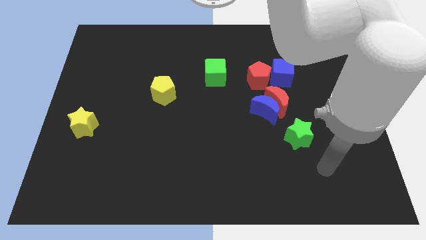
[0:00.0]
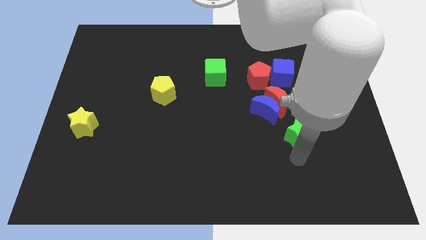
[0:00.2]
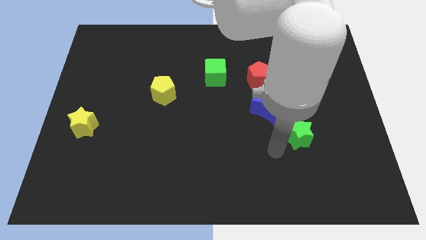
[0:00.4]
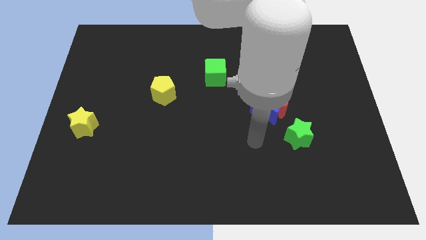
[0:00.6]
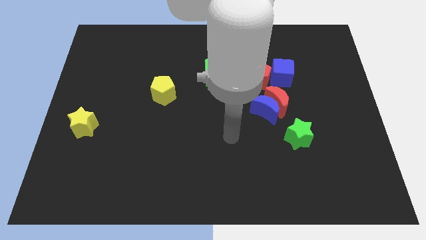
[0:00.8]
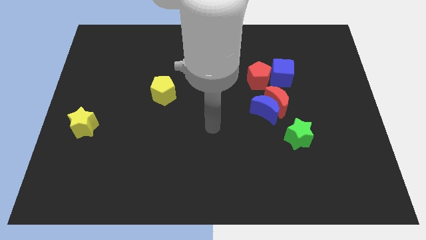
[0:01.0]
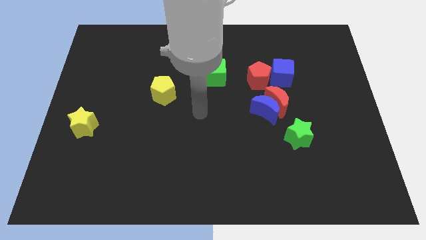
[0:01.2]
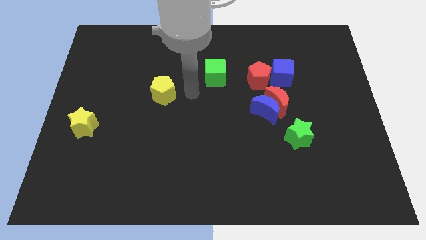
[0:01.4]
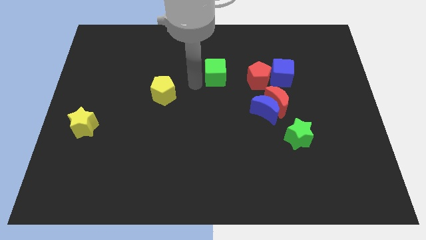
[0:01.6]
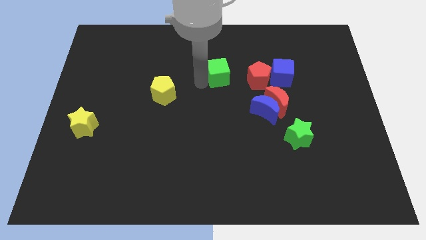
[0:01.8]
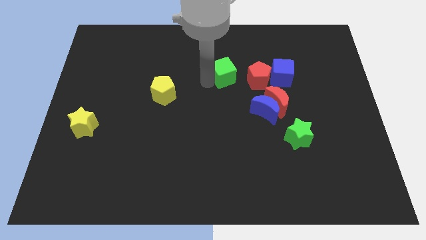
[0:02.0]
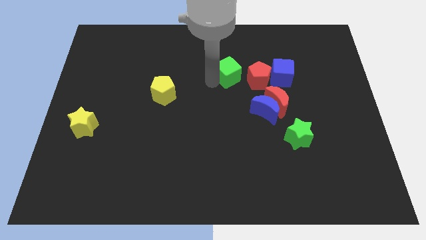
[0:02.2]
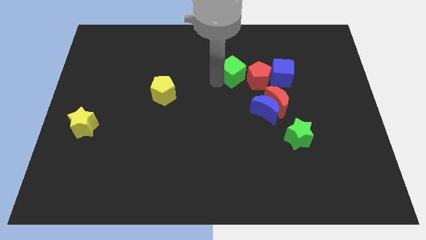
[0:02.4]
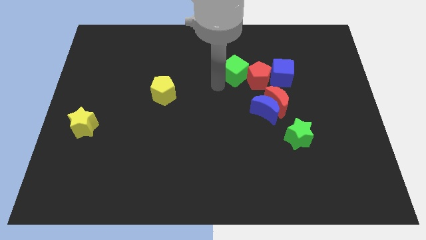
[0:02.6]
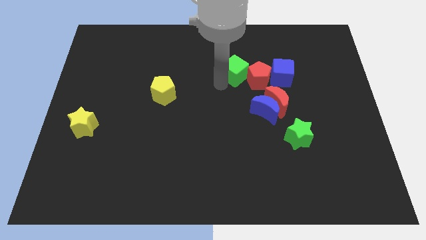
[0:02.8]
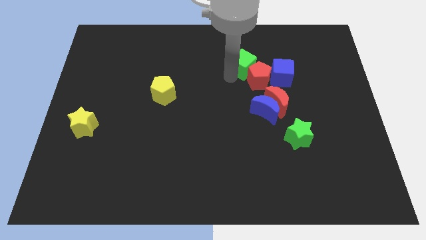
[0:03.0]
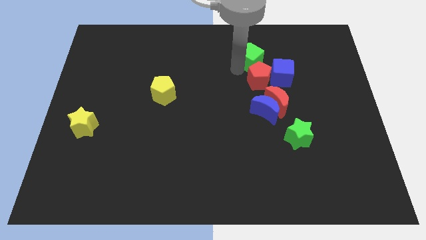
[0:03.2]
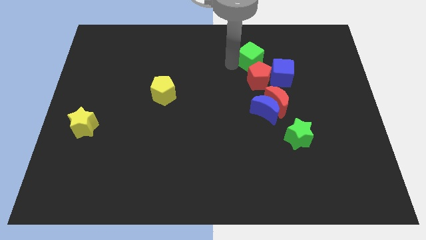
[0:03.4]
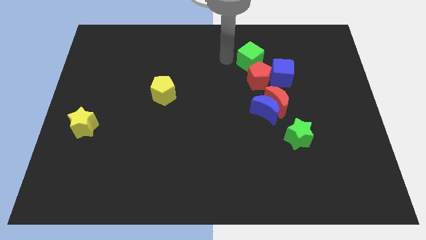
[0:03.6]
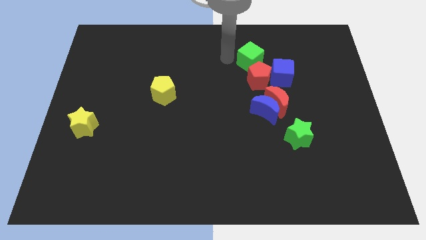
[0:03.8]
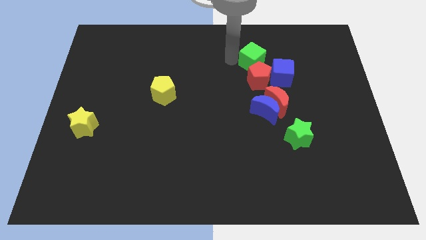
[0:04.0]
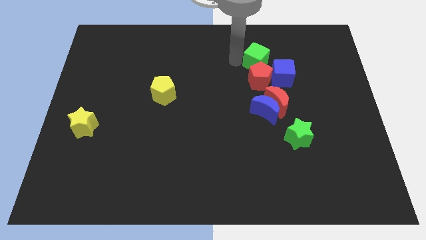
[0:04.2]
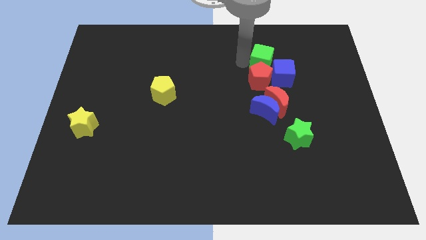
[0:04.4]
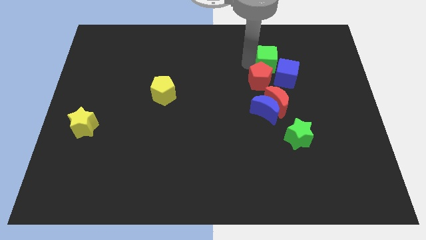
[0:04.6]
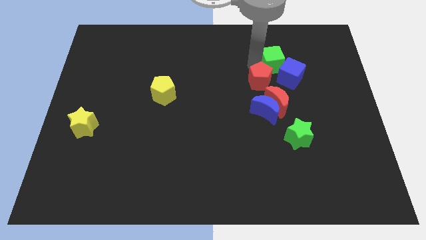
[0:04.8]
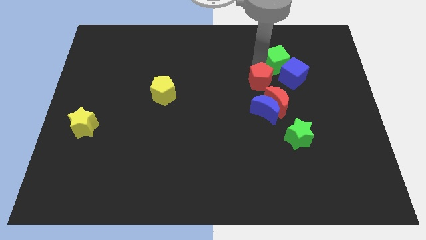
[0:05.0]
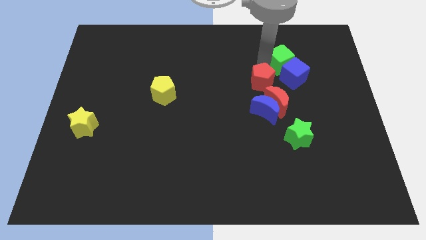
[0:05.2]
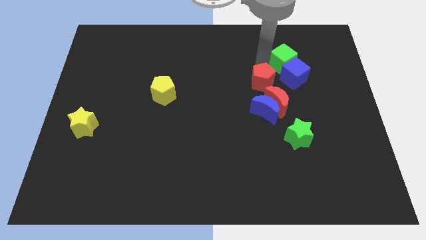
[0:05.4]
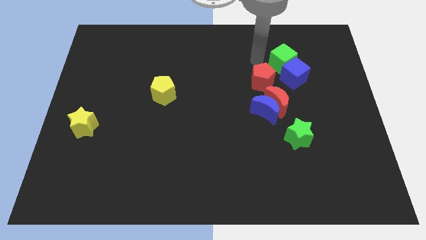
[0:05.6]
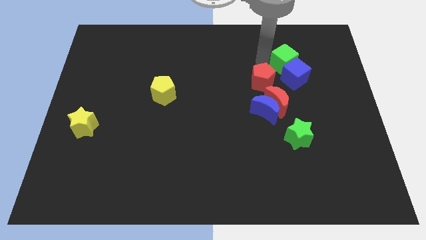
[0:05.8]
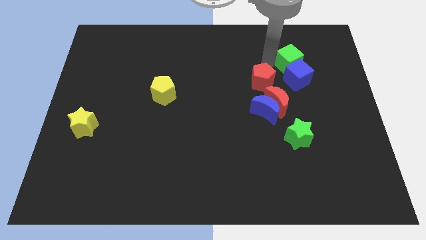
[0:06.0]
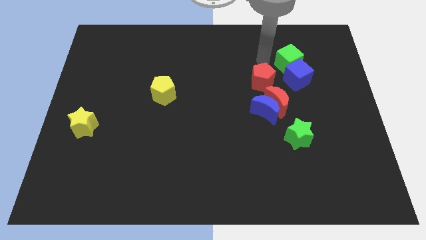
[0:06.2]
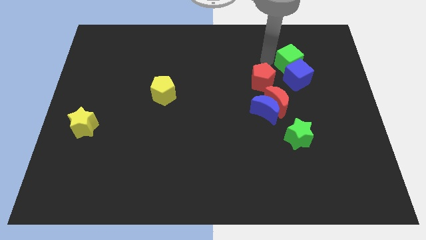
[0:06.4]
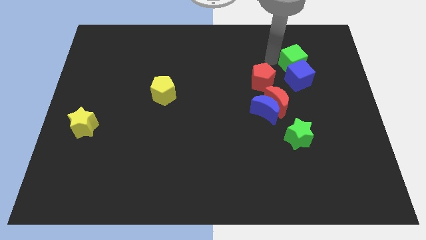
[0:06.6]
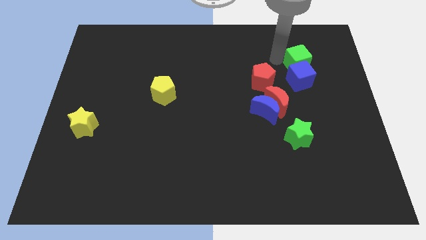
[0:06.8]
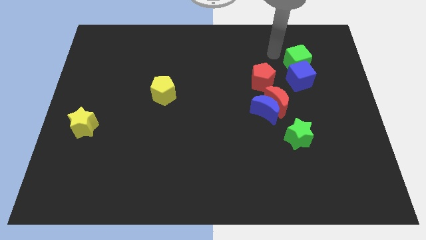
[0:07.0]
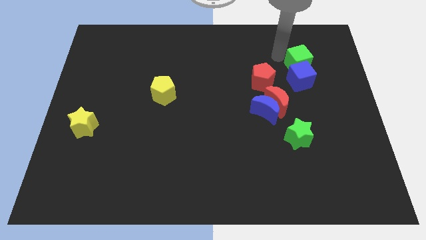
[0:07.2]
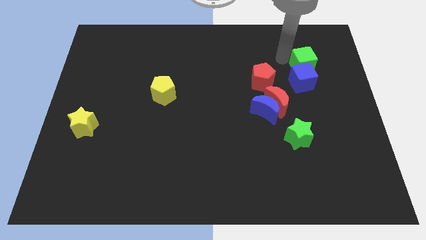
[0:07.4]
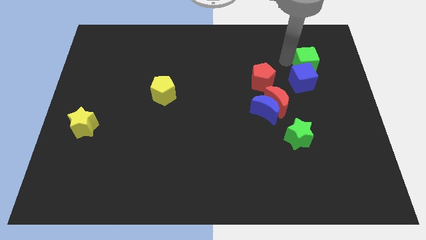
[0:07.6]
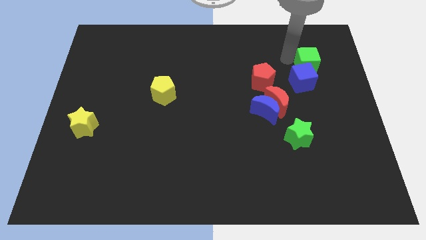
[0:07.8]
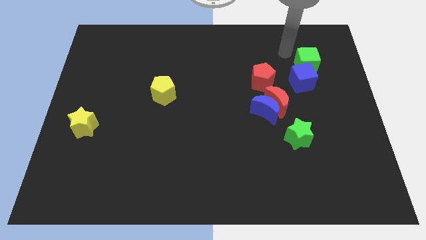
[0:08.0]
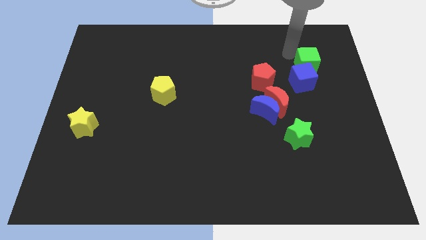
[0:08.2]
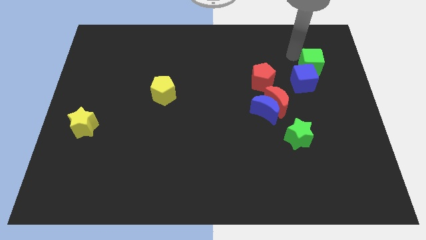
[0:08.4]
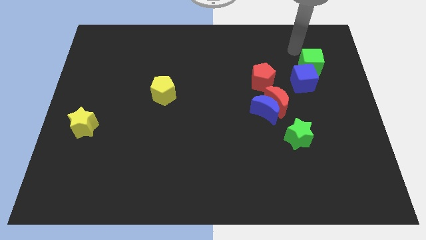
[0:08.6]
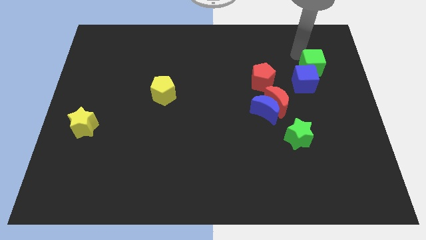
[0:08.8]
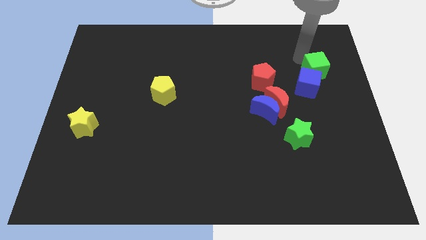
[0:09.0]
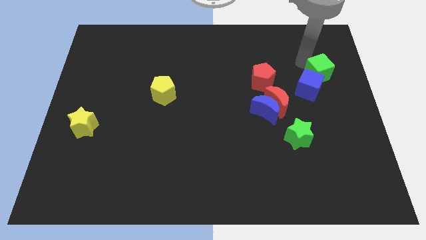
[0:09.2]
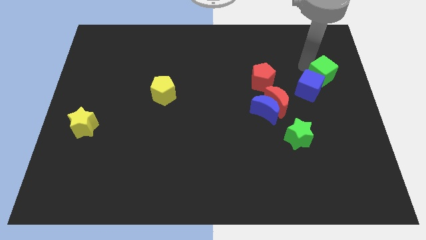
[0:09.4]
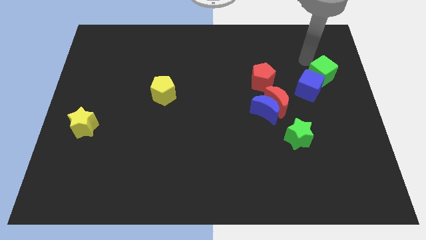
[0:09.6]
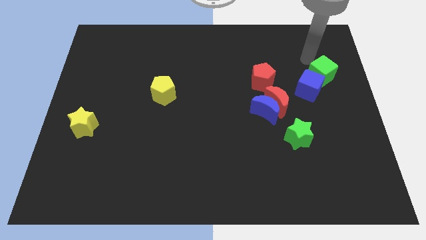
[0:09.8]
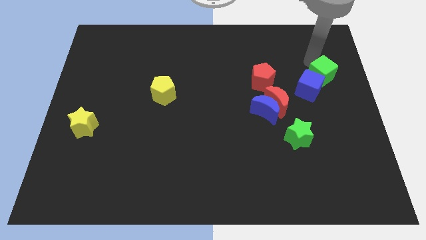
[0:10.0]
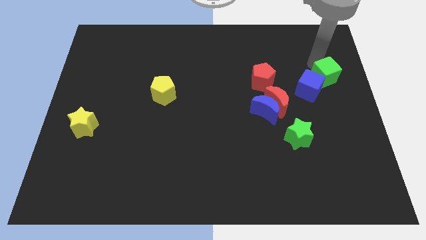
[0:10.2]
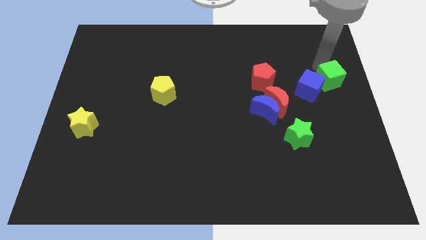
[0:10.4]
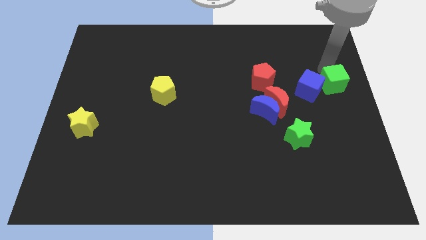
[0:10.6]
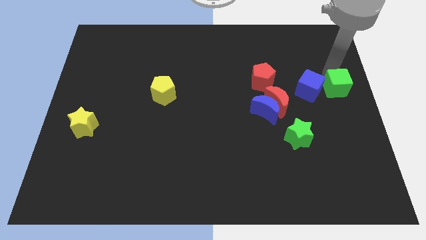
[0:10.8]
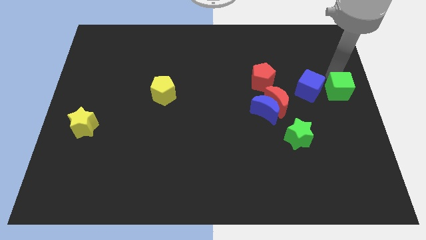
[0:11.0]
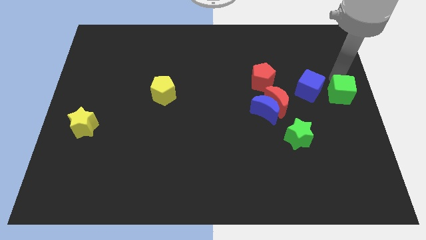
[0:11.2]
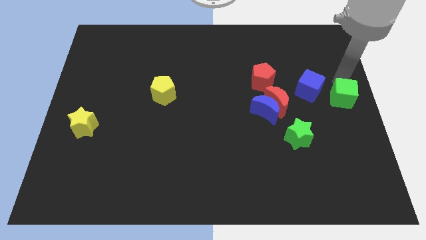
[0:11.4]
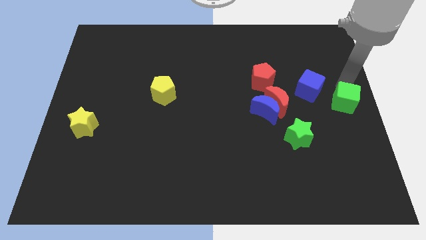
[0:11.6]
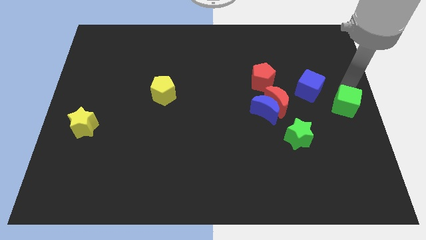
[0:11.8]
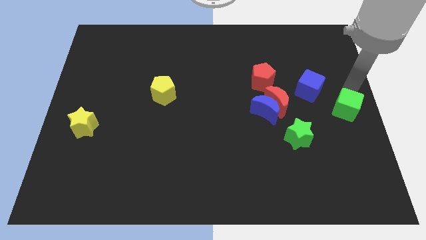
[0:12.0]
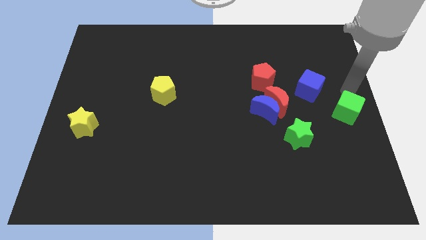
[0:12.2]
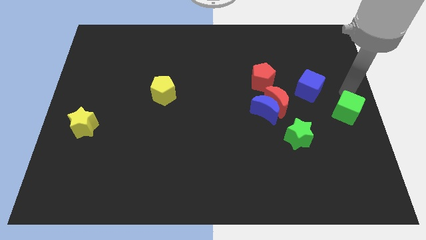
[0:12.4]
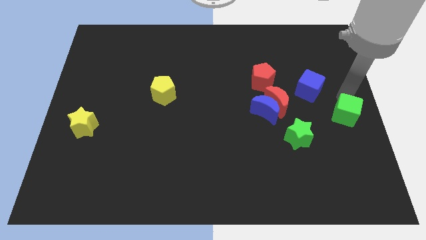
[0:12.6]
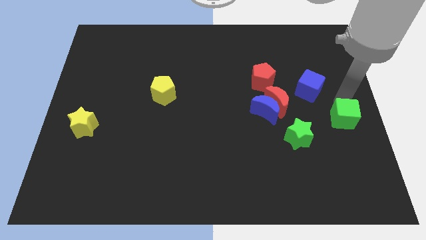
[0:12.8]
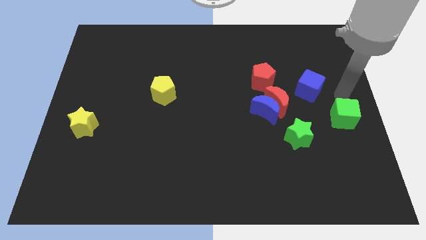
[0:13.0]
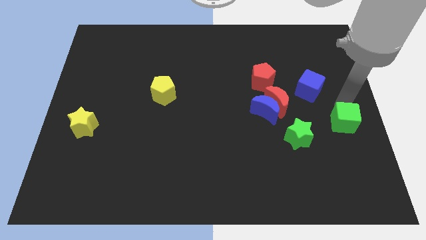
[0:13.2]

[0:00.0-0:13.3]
slide the green cube to the right of the green star

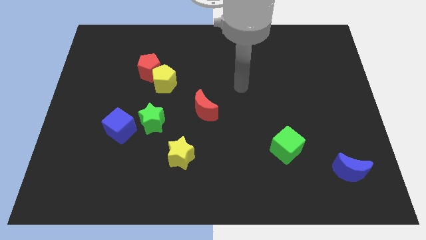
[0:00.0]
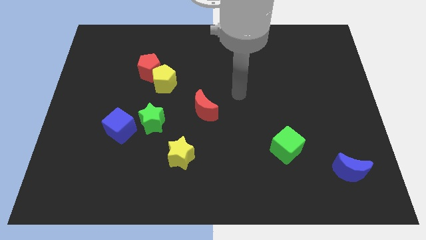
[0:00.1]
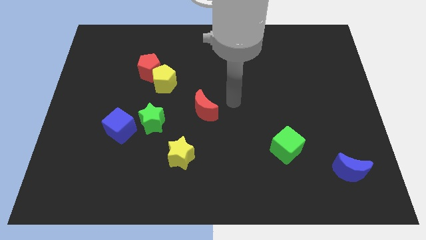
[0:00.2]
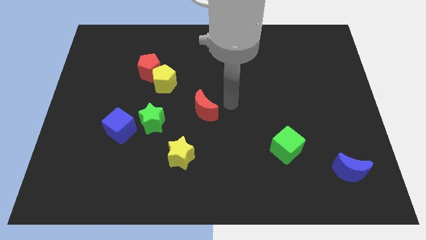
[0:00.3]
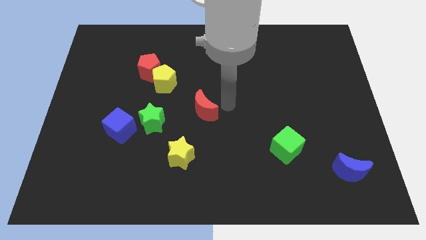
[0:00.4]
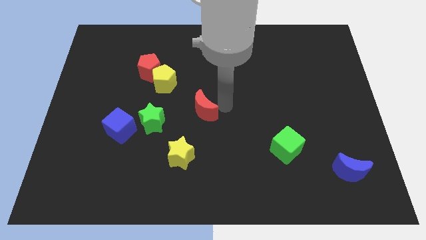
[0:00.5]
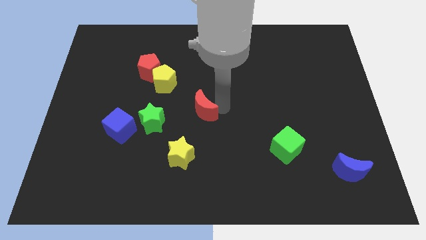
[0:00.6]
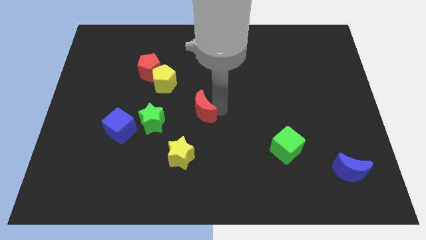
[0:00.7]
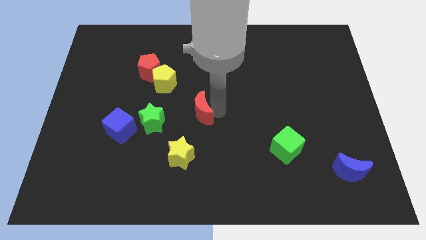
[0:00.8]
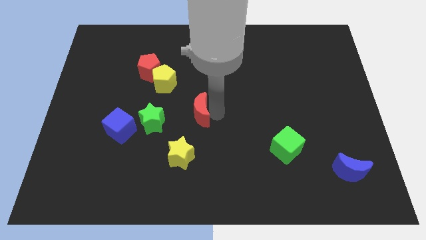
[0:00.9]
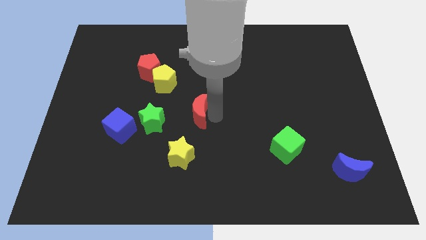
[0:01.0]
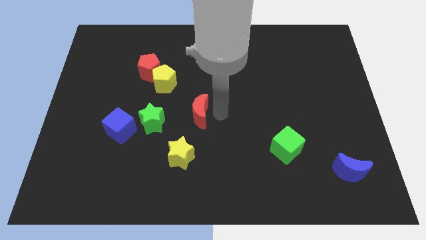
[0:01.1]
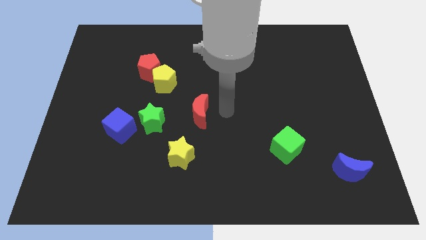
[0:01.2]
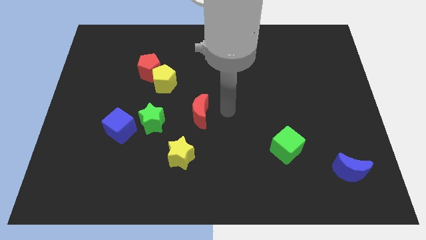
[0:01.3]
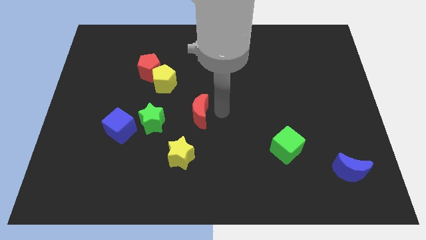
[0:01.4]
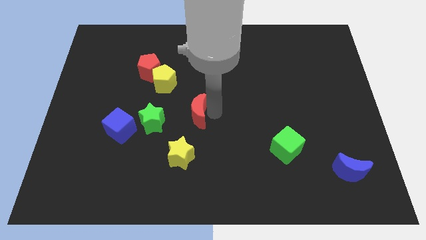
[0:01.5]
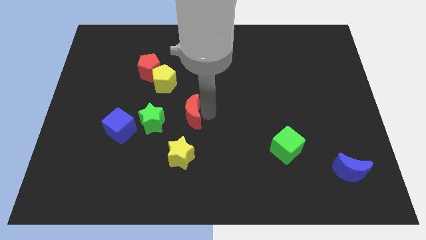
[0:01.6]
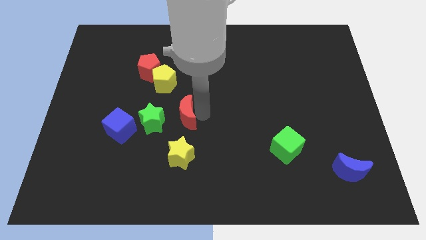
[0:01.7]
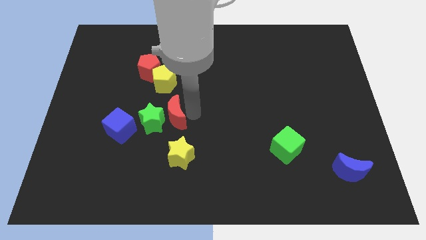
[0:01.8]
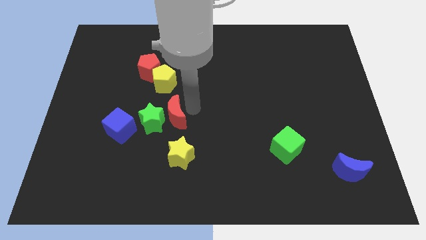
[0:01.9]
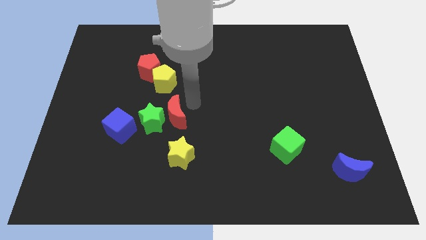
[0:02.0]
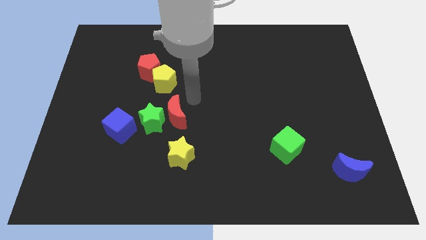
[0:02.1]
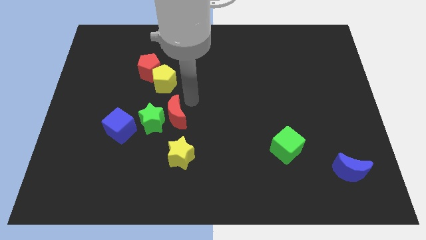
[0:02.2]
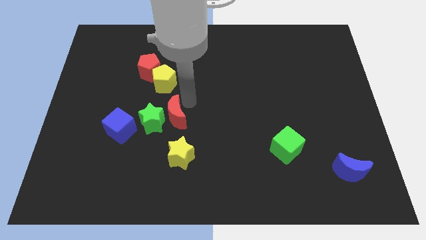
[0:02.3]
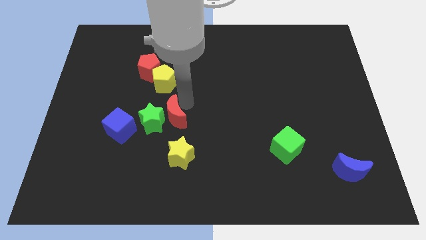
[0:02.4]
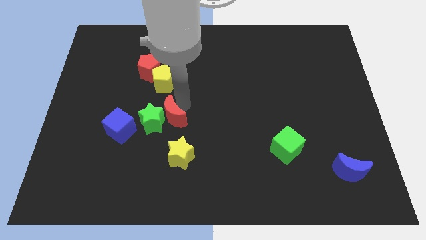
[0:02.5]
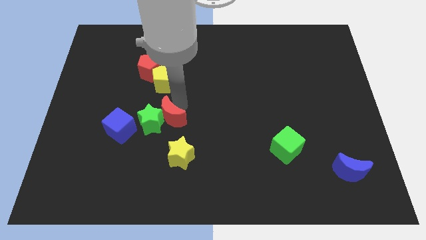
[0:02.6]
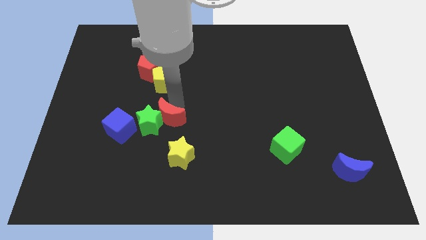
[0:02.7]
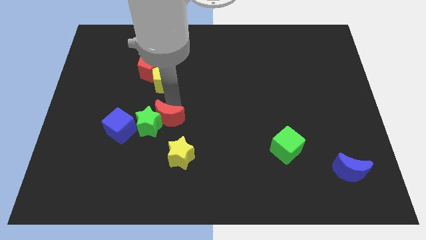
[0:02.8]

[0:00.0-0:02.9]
put the red moon diagonally up and to the left of the yellow star
